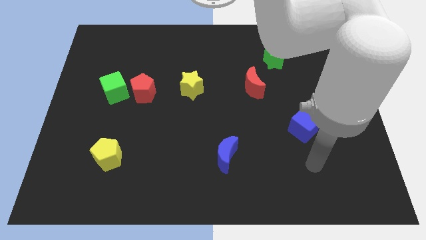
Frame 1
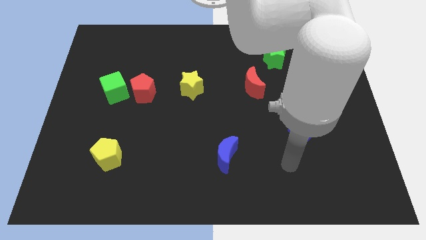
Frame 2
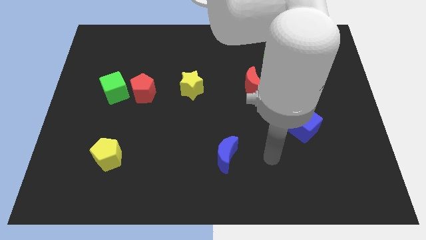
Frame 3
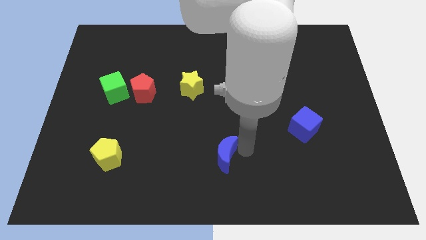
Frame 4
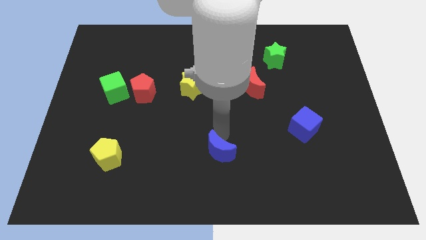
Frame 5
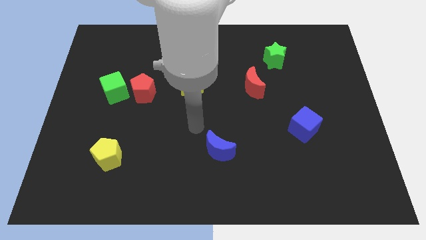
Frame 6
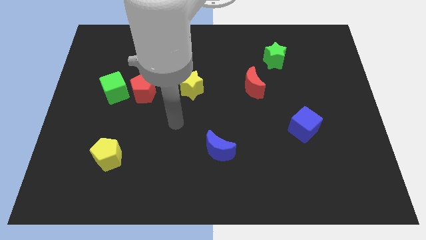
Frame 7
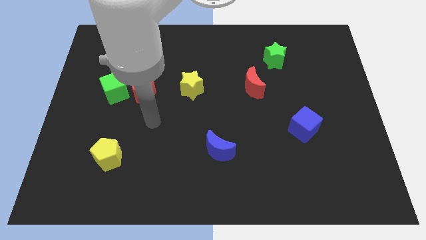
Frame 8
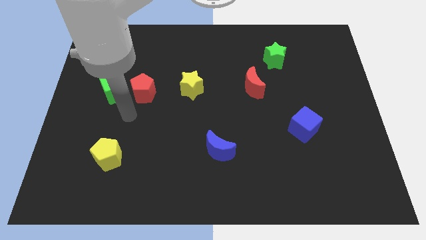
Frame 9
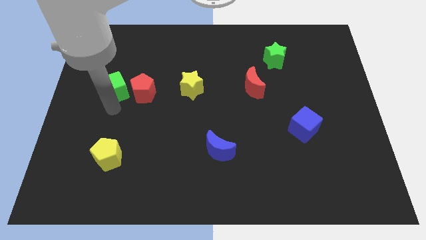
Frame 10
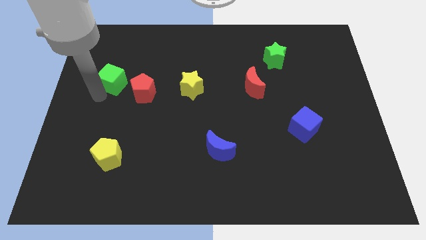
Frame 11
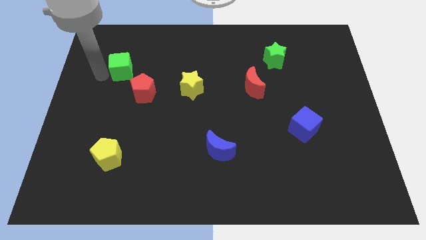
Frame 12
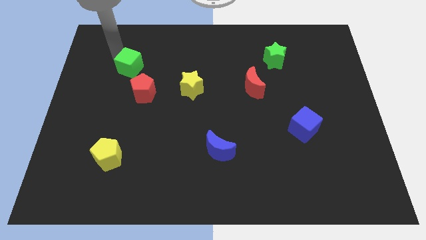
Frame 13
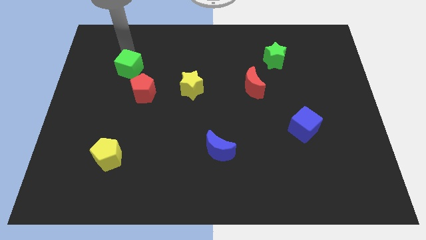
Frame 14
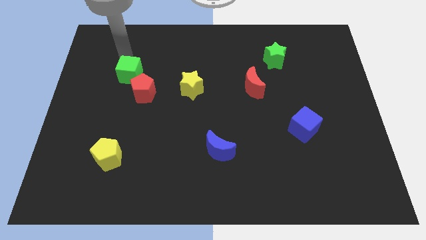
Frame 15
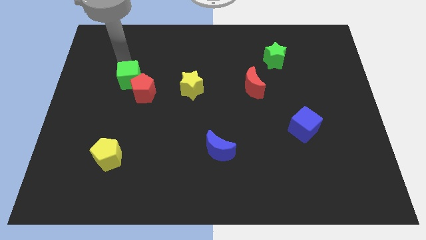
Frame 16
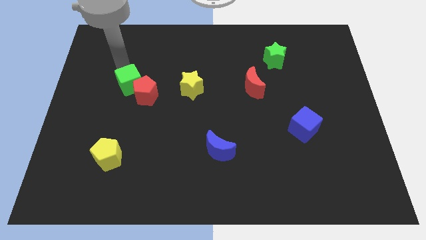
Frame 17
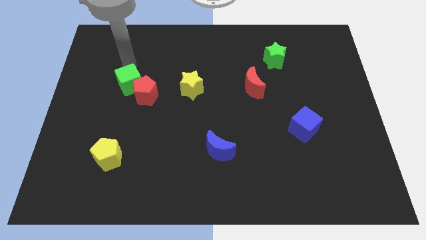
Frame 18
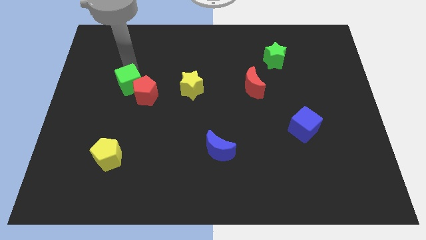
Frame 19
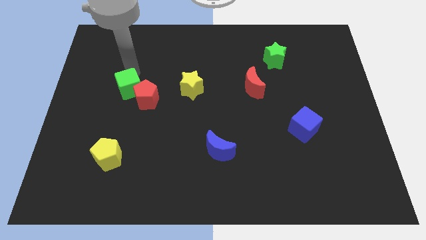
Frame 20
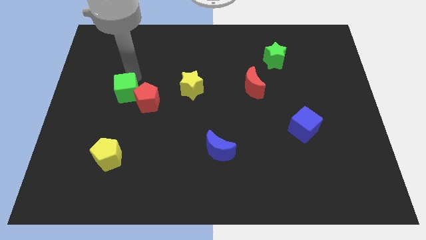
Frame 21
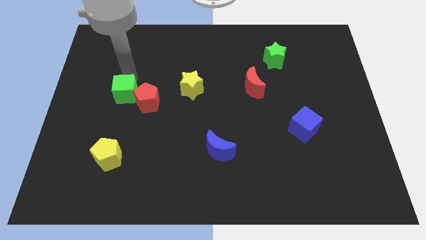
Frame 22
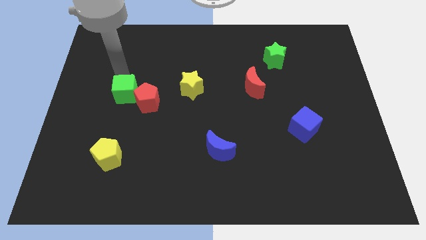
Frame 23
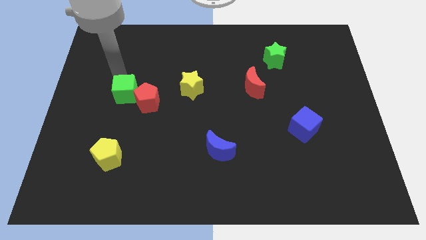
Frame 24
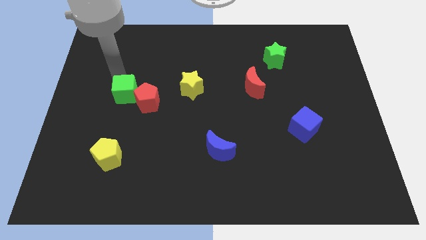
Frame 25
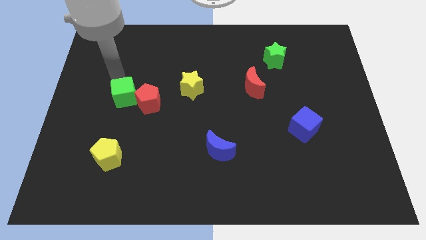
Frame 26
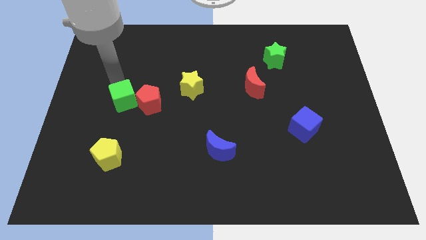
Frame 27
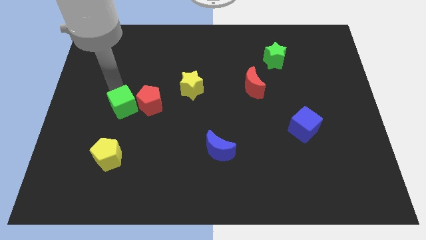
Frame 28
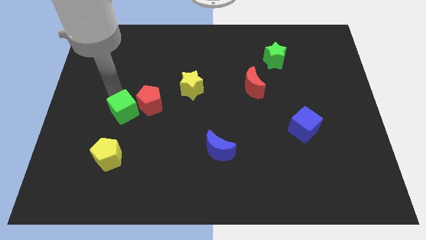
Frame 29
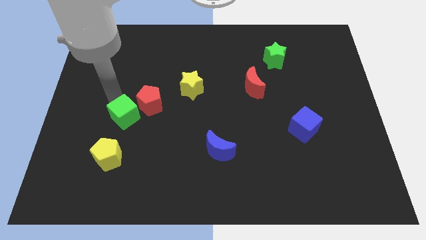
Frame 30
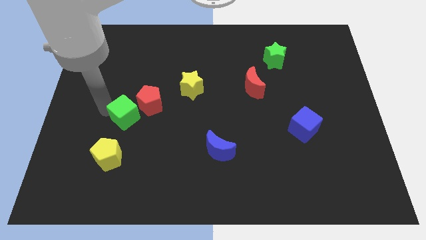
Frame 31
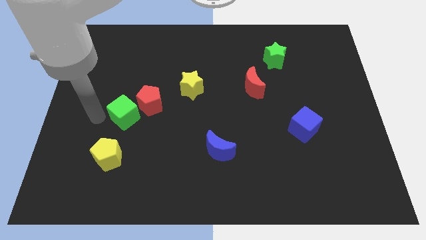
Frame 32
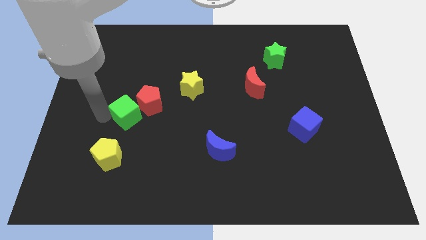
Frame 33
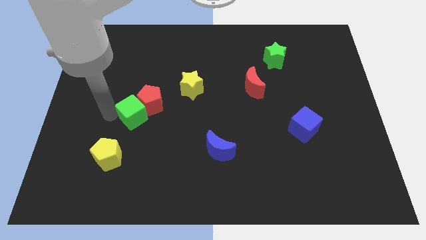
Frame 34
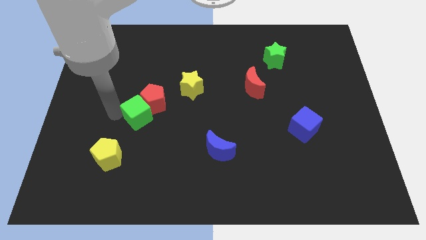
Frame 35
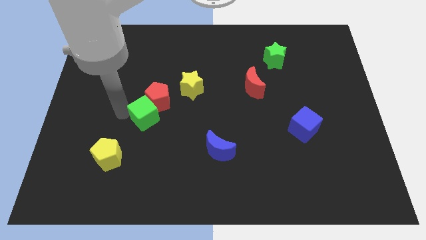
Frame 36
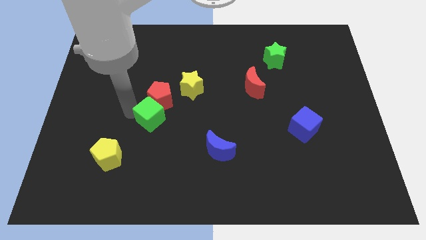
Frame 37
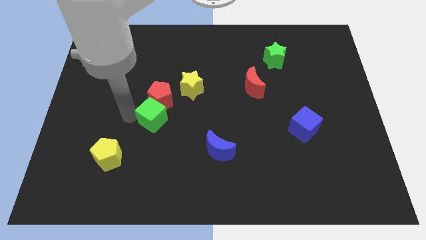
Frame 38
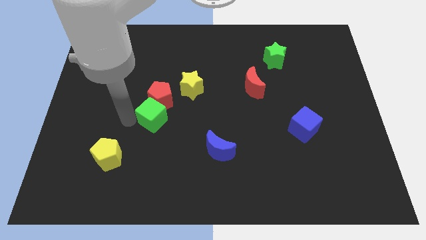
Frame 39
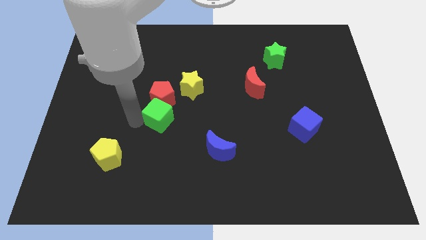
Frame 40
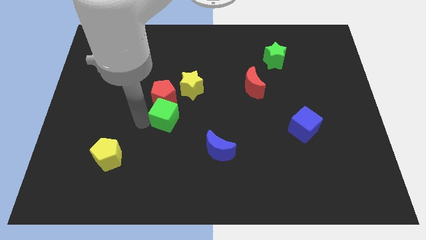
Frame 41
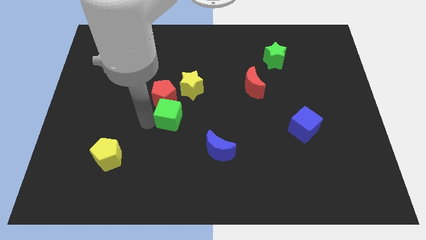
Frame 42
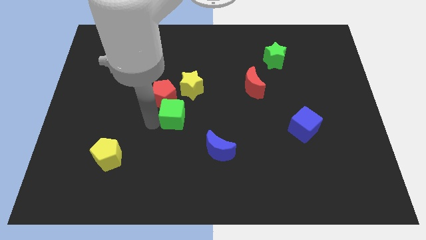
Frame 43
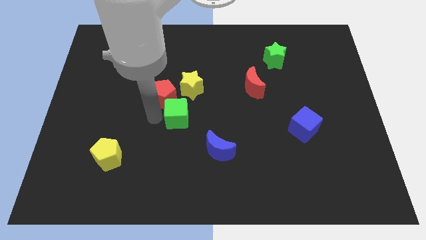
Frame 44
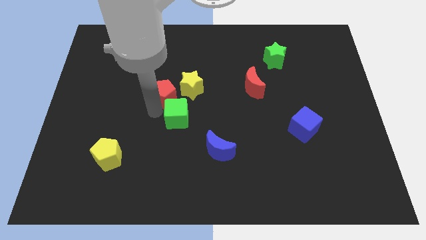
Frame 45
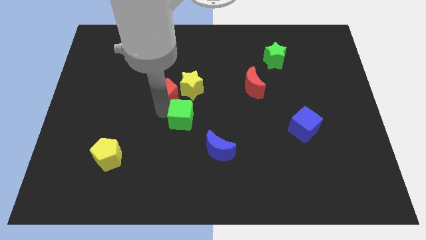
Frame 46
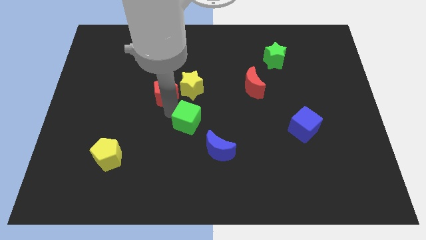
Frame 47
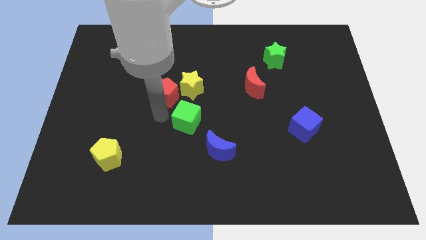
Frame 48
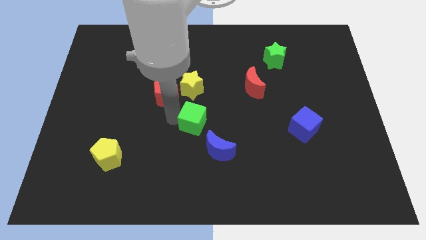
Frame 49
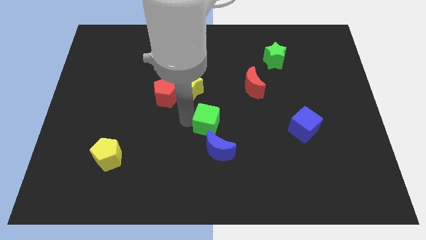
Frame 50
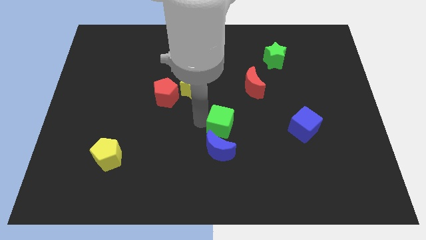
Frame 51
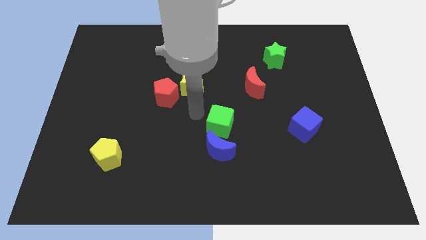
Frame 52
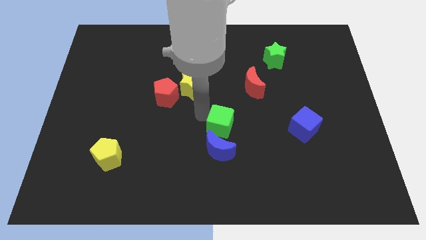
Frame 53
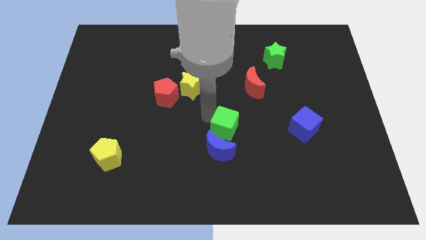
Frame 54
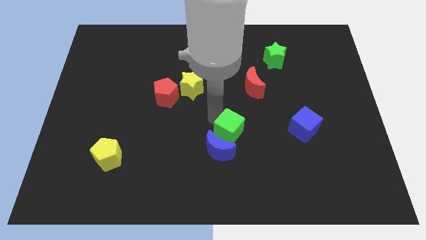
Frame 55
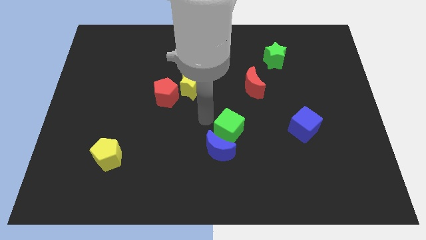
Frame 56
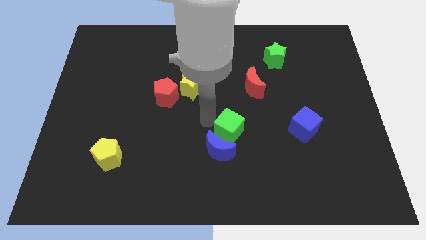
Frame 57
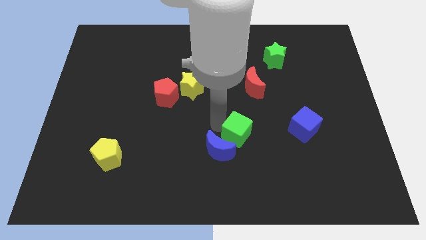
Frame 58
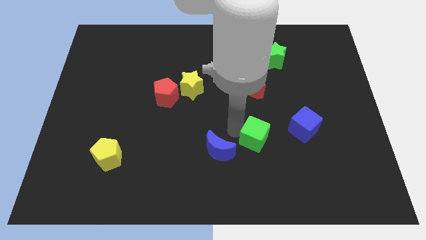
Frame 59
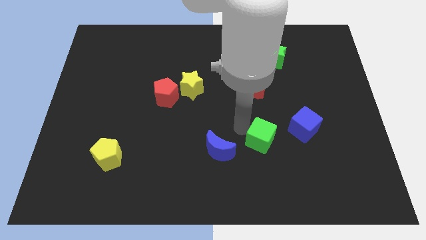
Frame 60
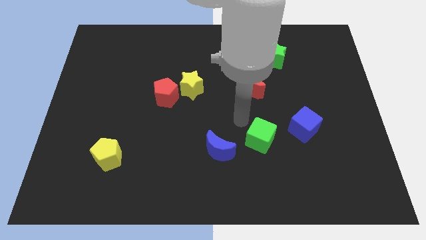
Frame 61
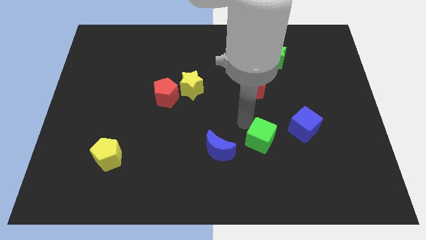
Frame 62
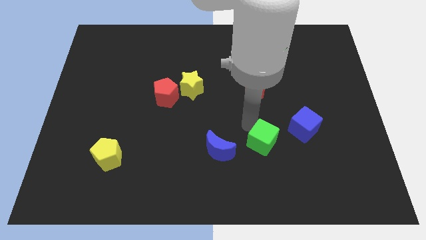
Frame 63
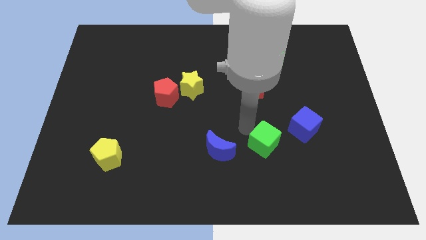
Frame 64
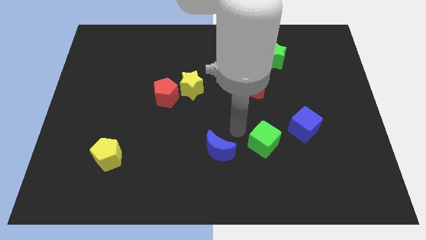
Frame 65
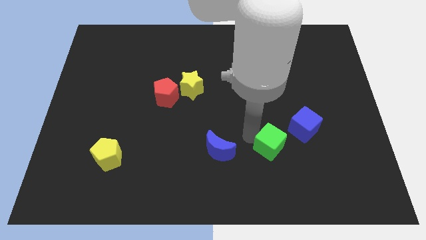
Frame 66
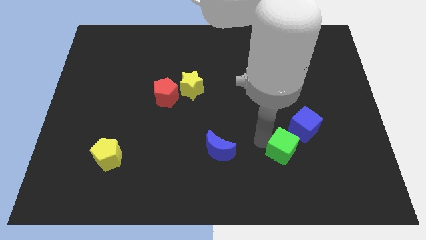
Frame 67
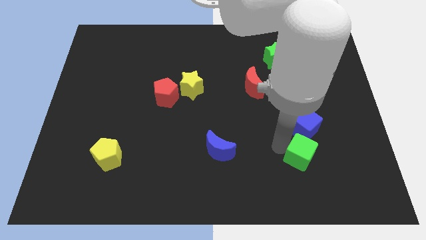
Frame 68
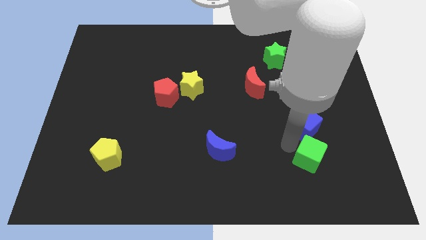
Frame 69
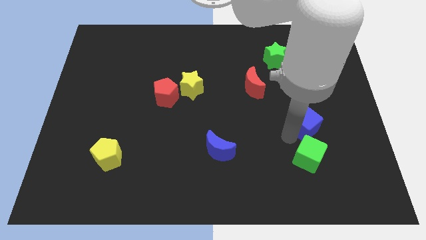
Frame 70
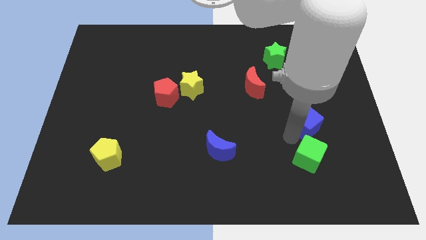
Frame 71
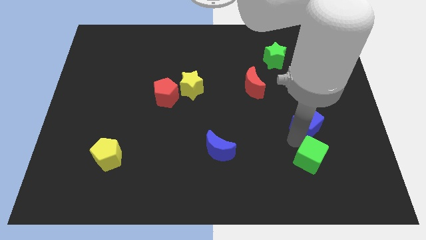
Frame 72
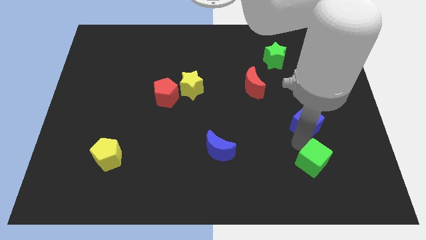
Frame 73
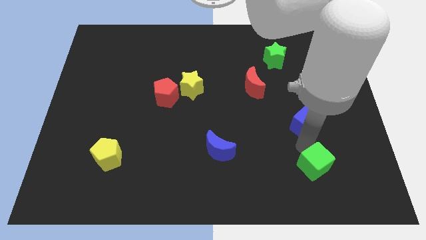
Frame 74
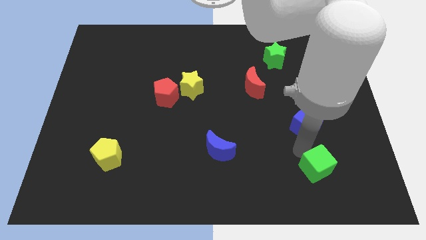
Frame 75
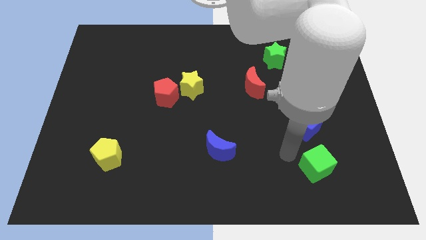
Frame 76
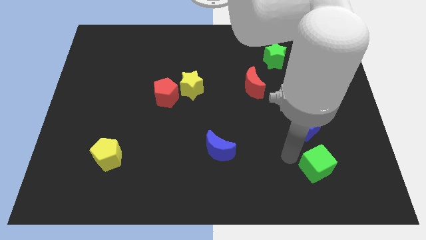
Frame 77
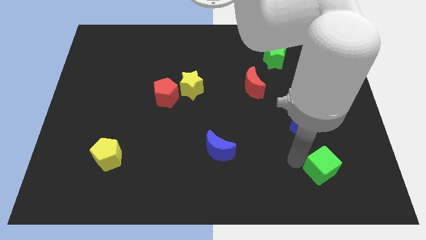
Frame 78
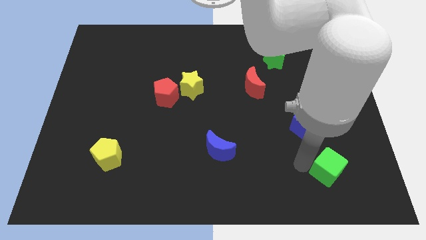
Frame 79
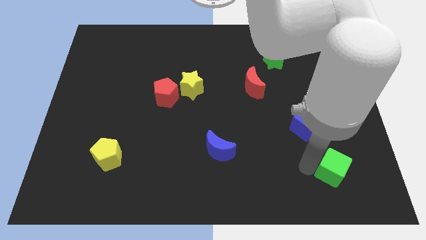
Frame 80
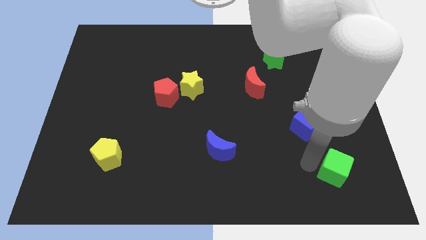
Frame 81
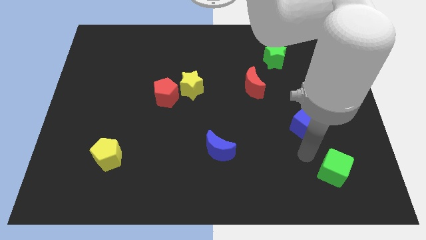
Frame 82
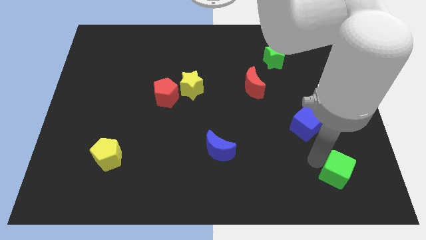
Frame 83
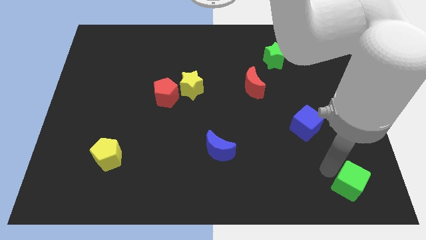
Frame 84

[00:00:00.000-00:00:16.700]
put the green cube to the bottom right of the board
